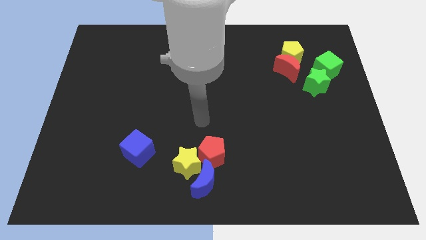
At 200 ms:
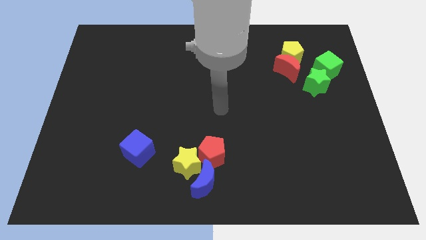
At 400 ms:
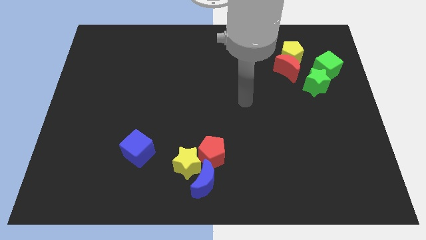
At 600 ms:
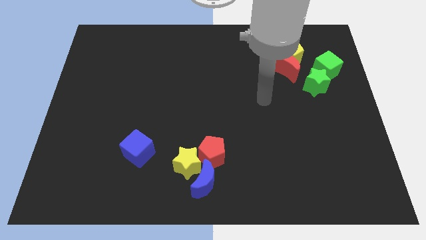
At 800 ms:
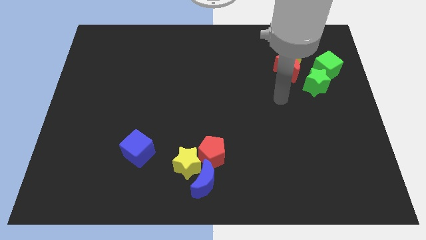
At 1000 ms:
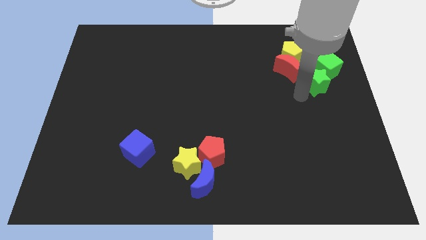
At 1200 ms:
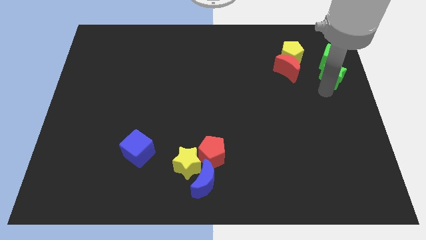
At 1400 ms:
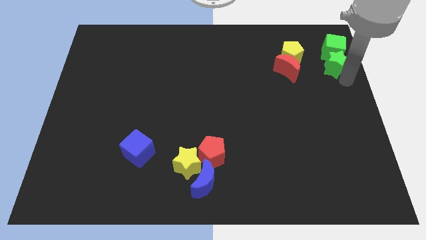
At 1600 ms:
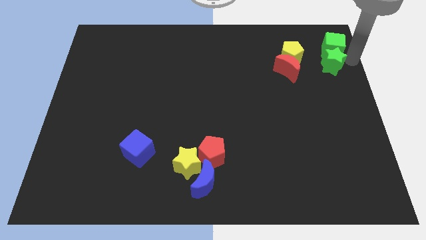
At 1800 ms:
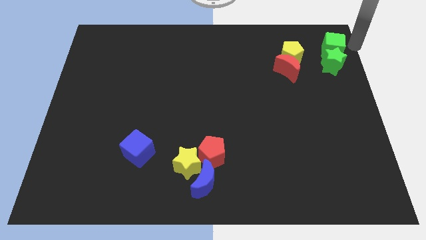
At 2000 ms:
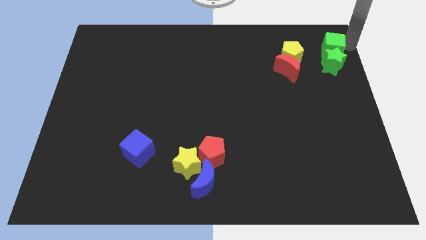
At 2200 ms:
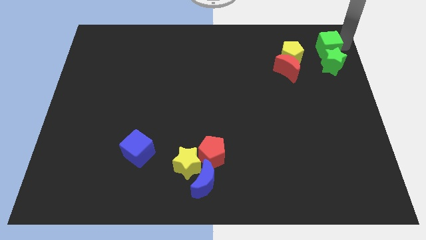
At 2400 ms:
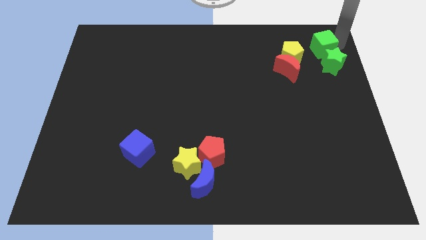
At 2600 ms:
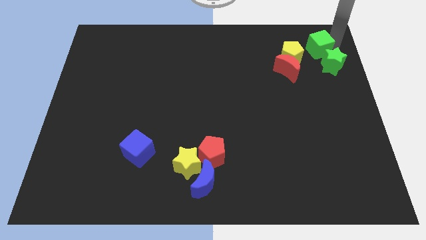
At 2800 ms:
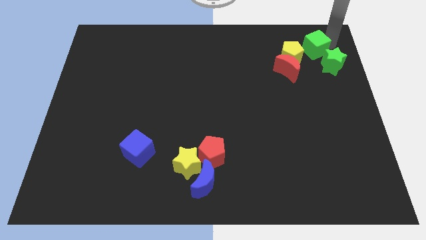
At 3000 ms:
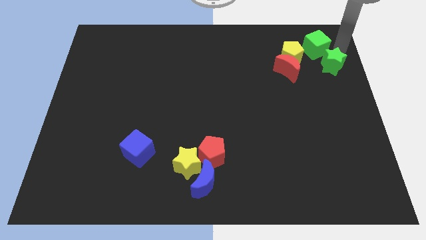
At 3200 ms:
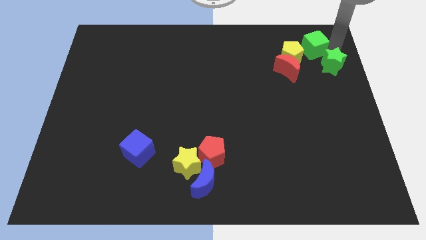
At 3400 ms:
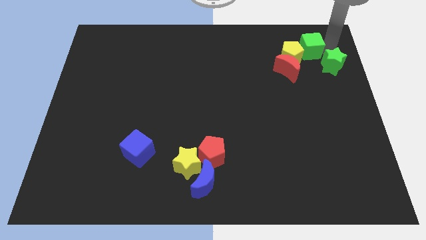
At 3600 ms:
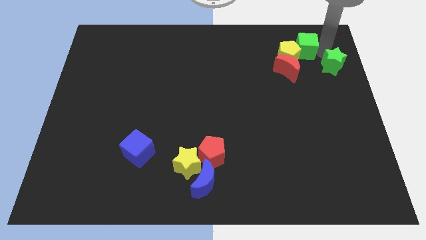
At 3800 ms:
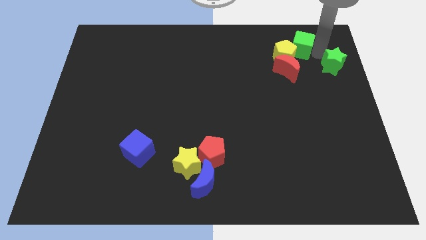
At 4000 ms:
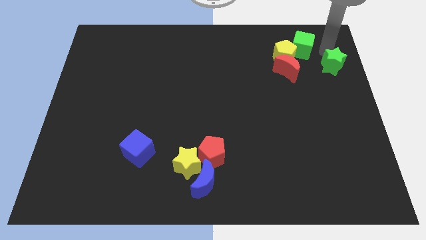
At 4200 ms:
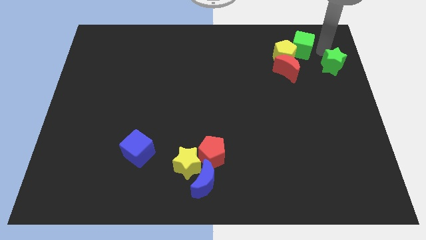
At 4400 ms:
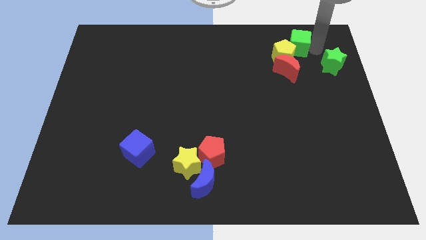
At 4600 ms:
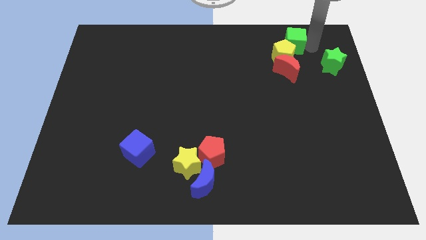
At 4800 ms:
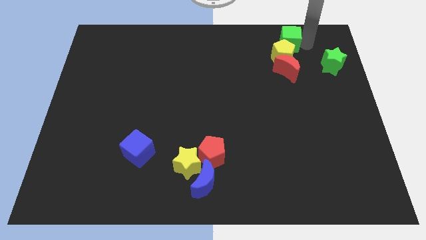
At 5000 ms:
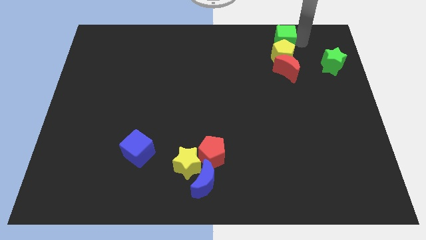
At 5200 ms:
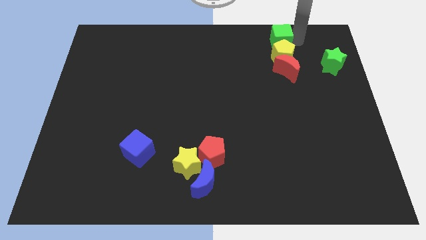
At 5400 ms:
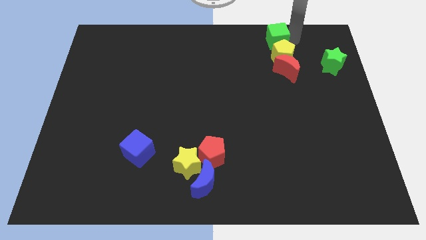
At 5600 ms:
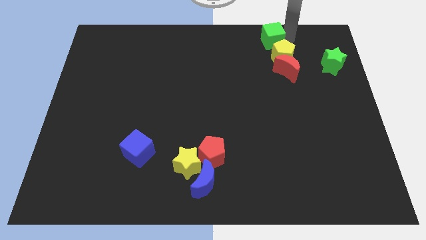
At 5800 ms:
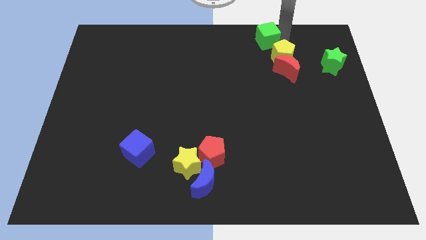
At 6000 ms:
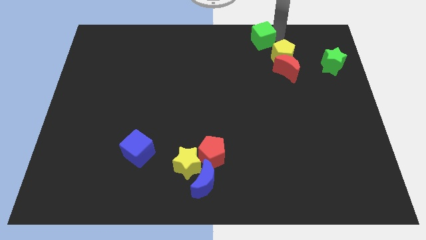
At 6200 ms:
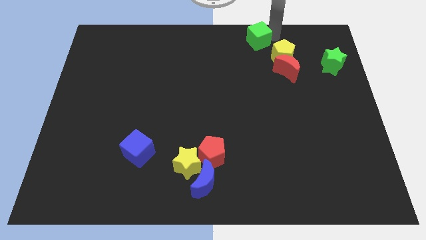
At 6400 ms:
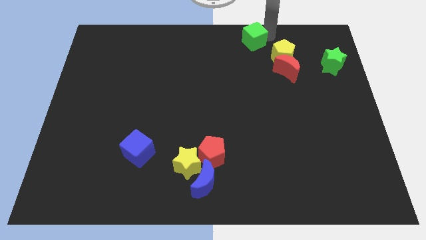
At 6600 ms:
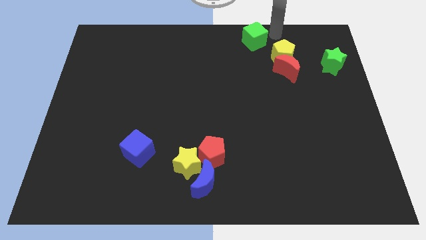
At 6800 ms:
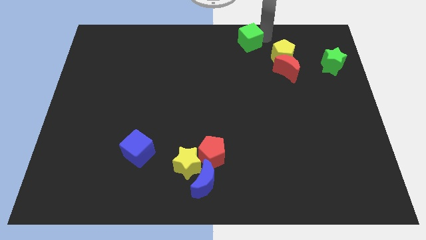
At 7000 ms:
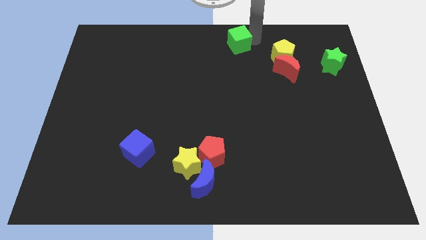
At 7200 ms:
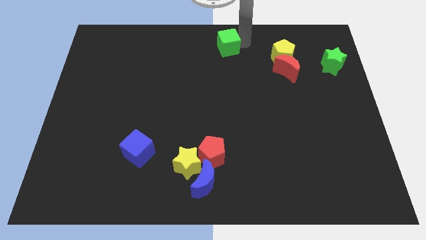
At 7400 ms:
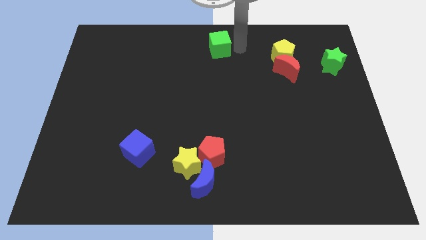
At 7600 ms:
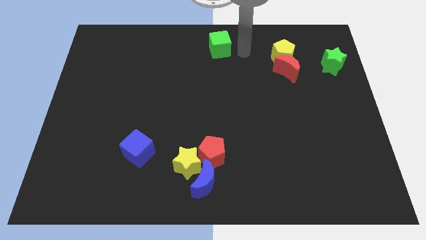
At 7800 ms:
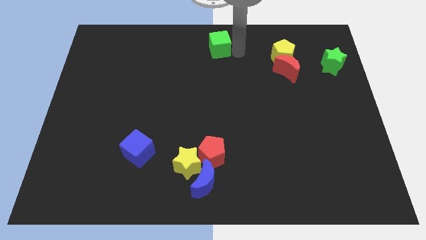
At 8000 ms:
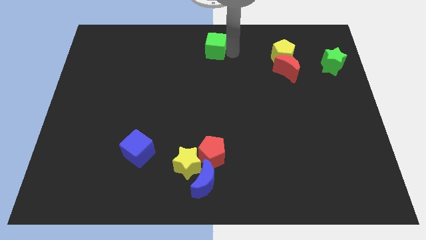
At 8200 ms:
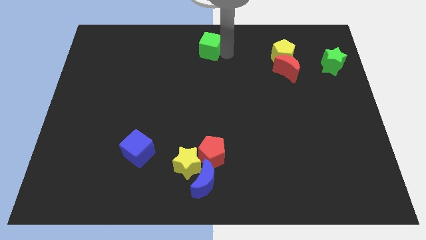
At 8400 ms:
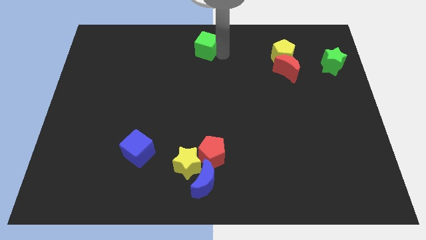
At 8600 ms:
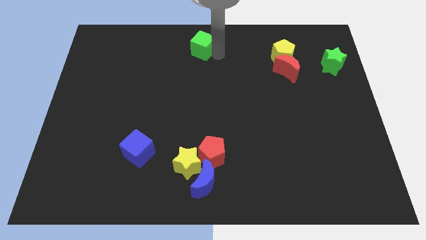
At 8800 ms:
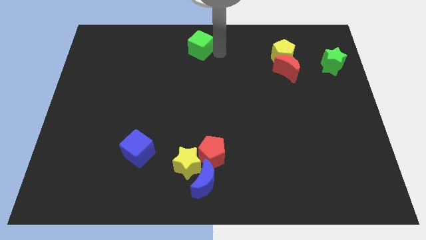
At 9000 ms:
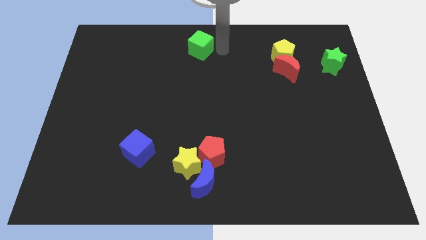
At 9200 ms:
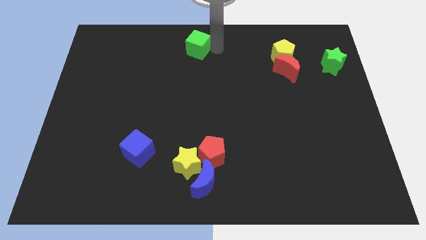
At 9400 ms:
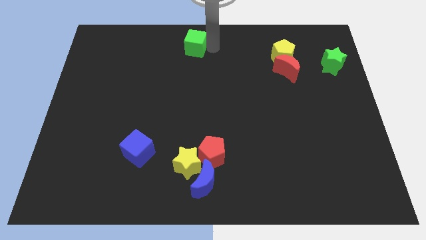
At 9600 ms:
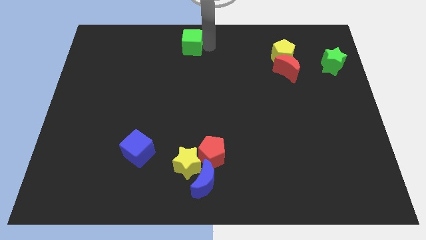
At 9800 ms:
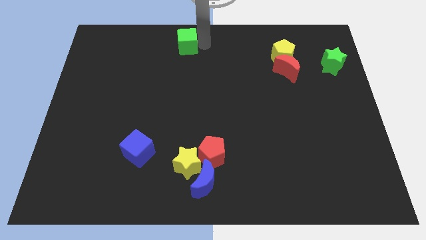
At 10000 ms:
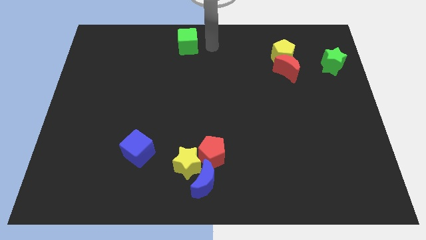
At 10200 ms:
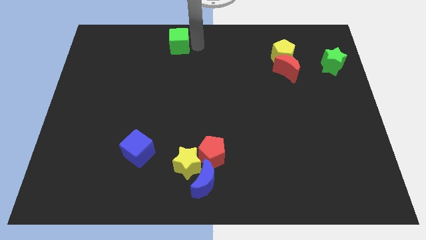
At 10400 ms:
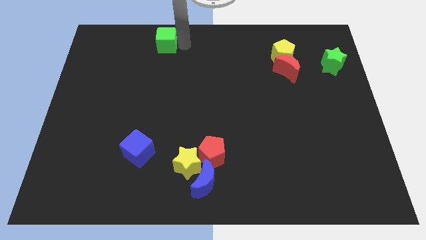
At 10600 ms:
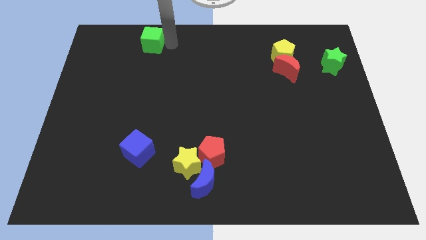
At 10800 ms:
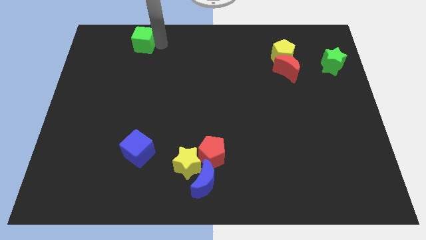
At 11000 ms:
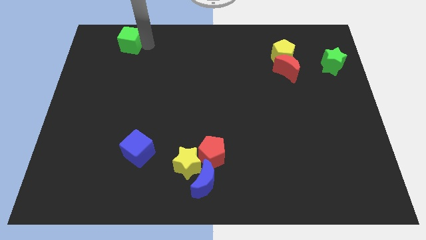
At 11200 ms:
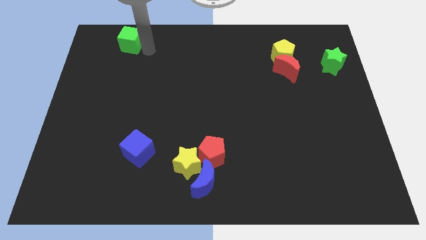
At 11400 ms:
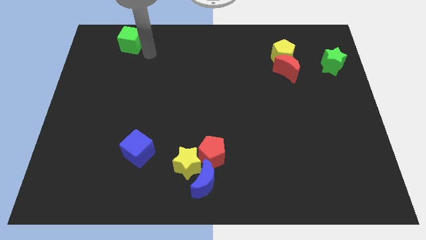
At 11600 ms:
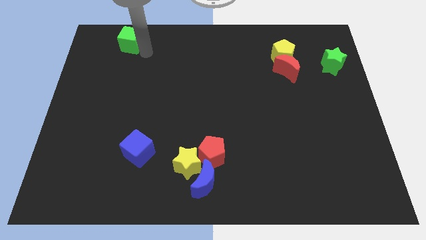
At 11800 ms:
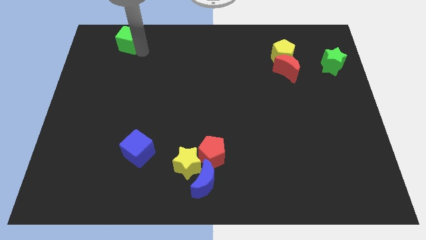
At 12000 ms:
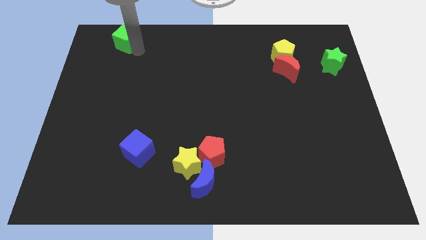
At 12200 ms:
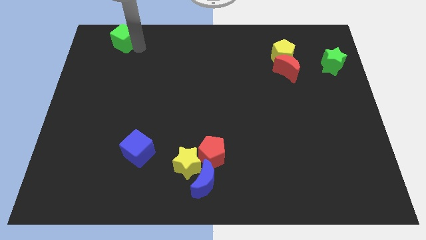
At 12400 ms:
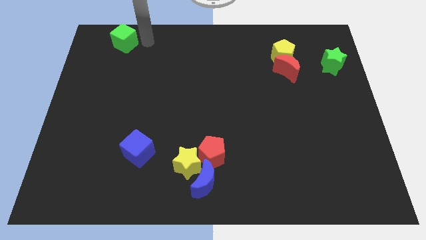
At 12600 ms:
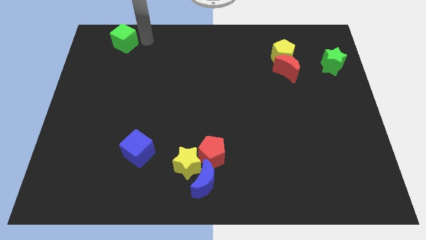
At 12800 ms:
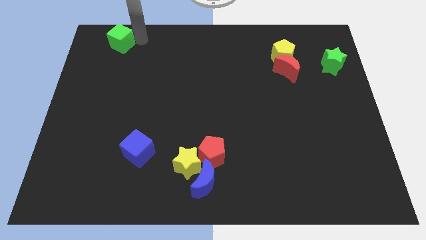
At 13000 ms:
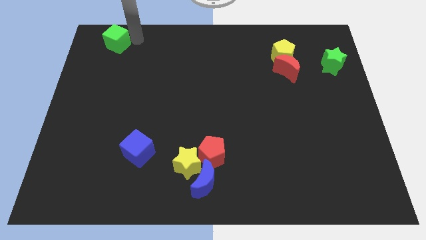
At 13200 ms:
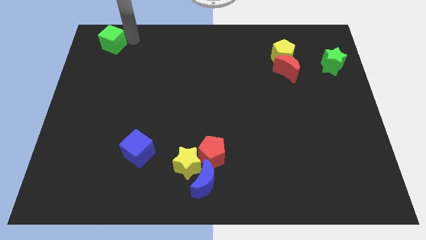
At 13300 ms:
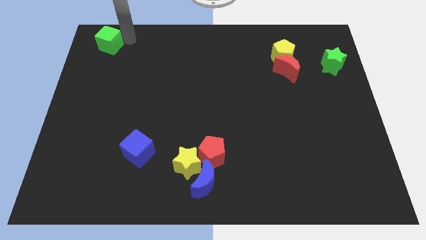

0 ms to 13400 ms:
slide the green cube to the top left corner

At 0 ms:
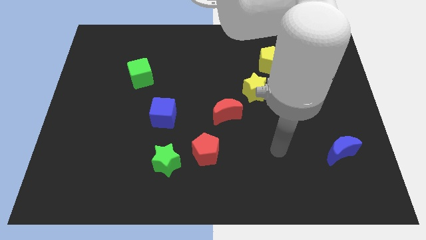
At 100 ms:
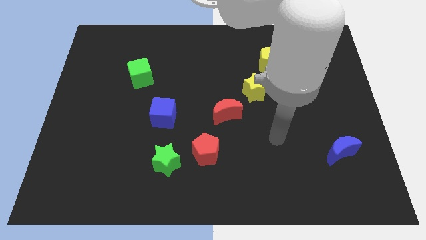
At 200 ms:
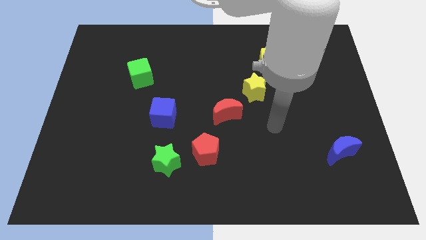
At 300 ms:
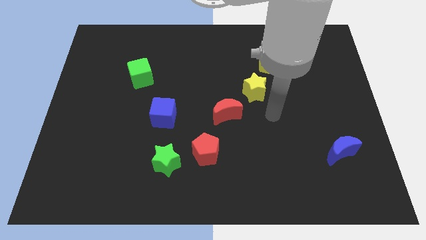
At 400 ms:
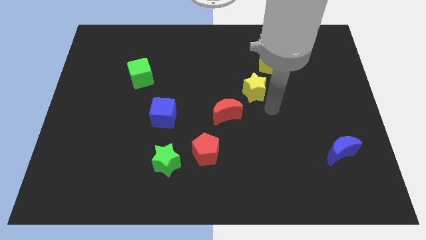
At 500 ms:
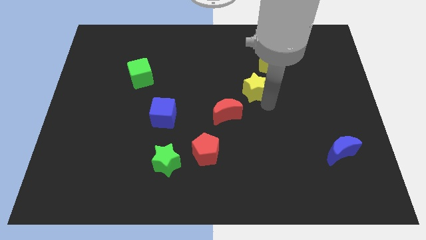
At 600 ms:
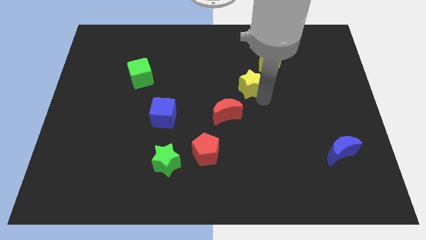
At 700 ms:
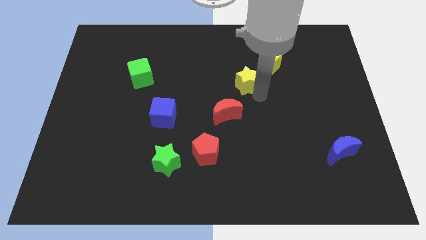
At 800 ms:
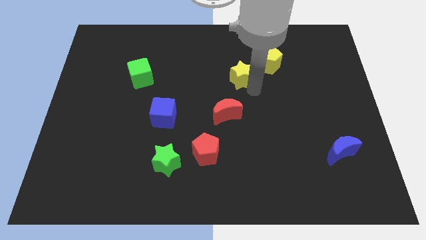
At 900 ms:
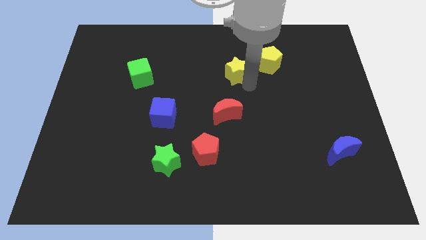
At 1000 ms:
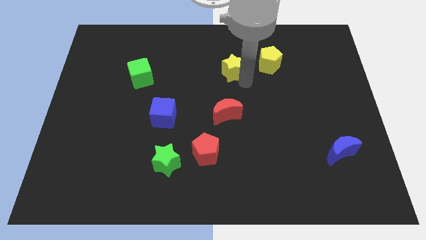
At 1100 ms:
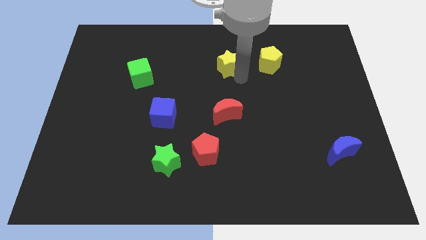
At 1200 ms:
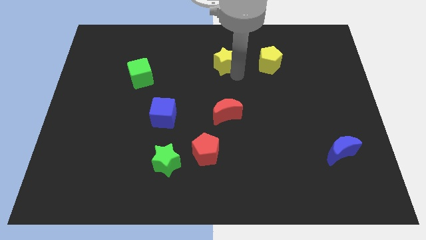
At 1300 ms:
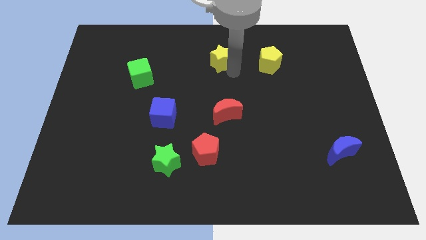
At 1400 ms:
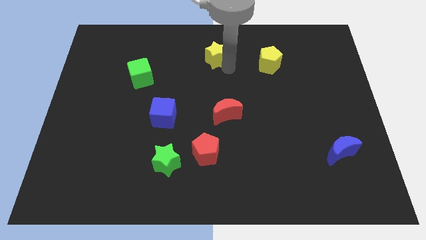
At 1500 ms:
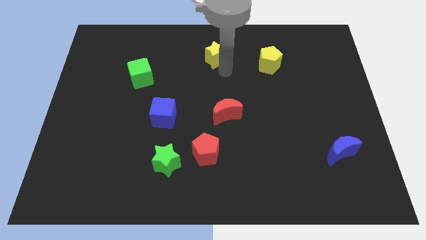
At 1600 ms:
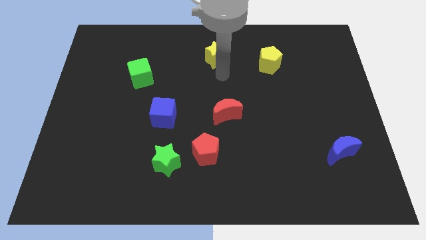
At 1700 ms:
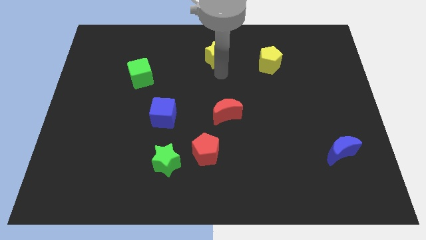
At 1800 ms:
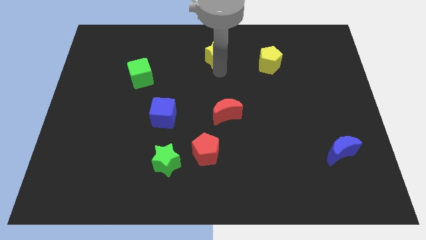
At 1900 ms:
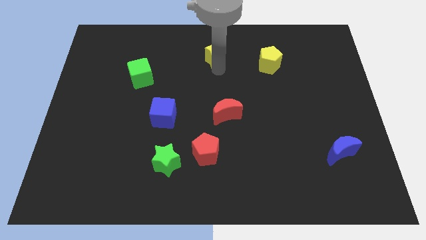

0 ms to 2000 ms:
put the yellow star to the towards your base
